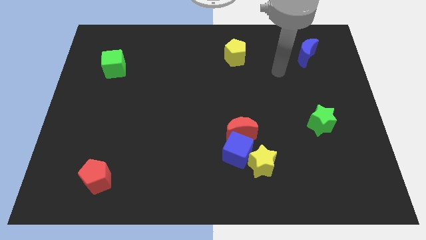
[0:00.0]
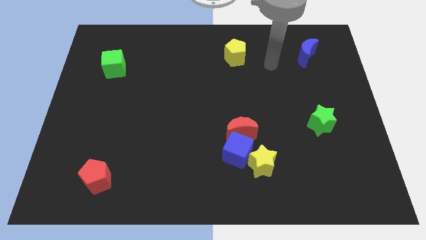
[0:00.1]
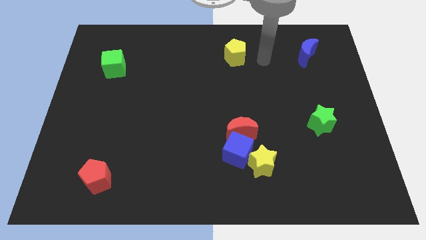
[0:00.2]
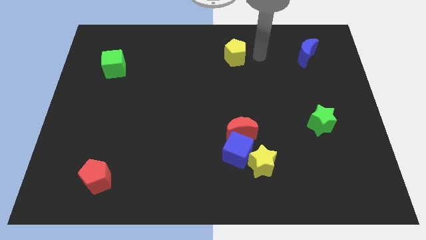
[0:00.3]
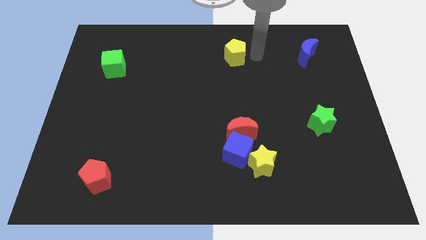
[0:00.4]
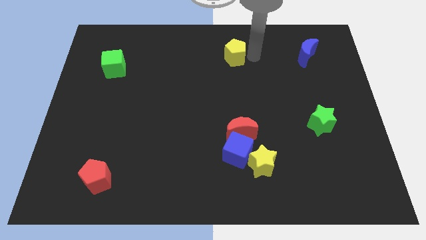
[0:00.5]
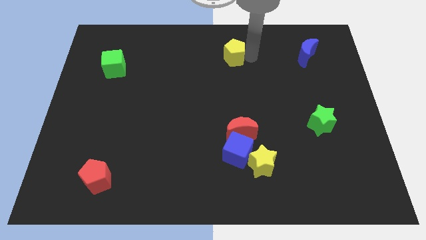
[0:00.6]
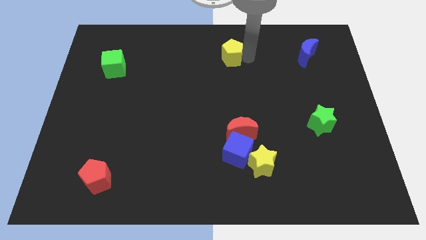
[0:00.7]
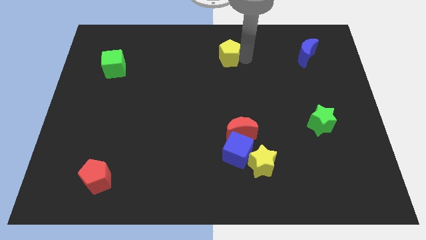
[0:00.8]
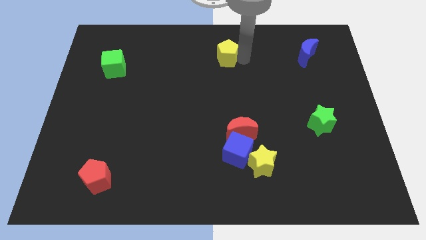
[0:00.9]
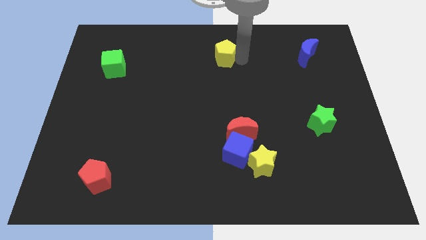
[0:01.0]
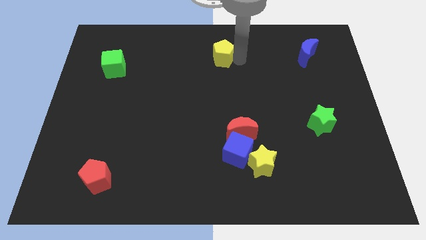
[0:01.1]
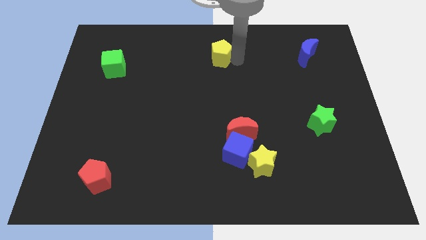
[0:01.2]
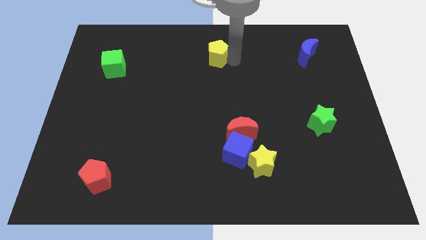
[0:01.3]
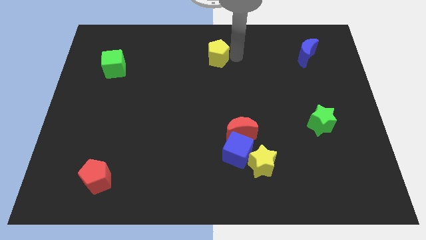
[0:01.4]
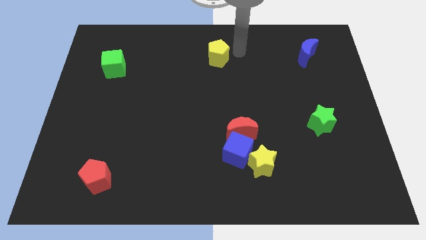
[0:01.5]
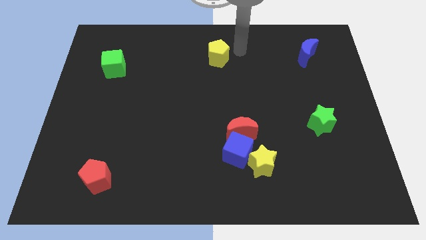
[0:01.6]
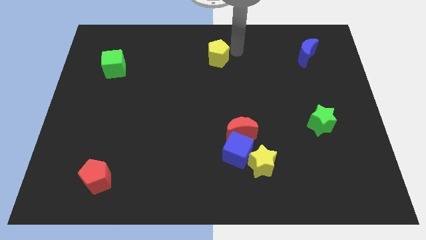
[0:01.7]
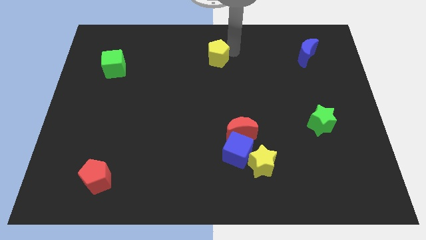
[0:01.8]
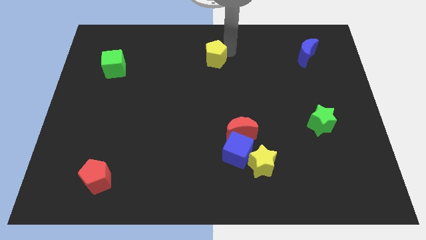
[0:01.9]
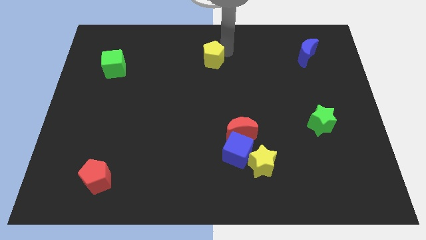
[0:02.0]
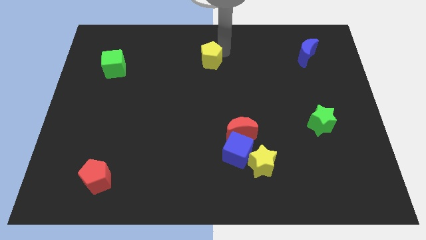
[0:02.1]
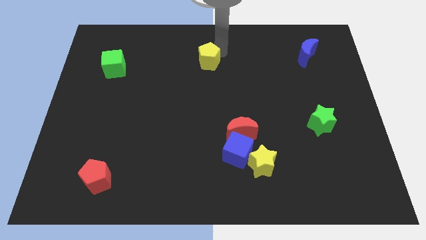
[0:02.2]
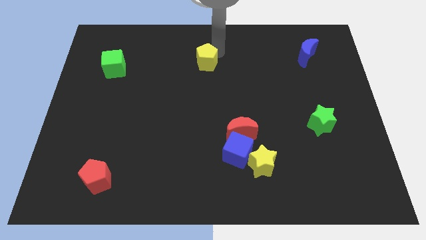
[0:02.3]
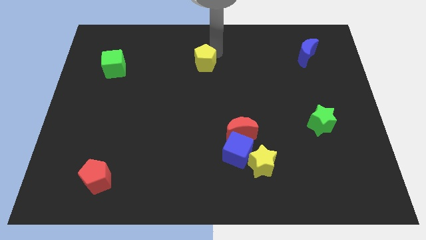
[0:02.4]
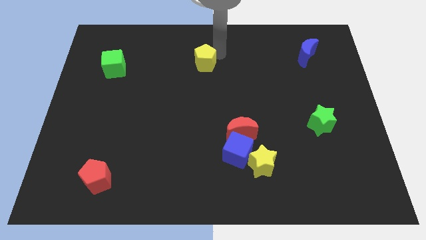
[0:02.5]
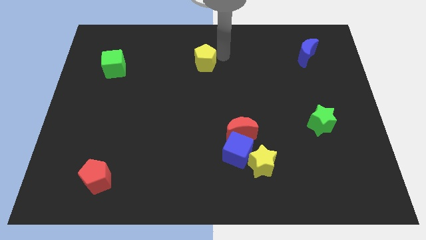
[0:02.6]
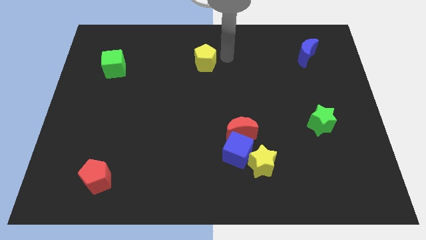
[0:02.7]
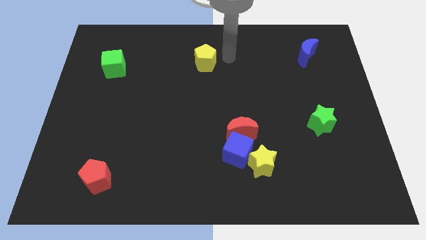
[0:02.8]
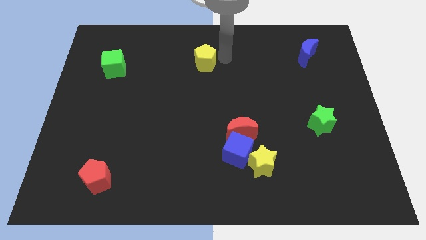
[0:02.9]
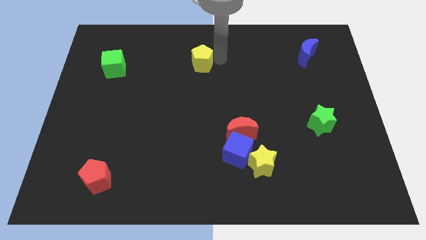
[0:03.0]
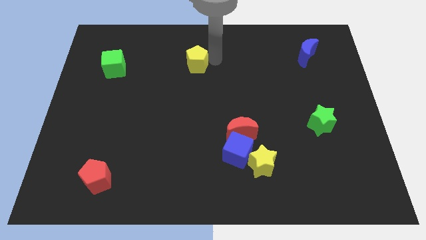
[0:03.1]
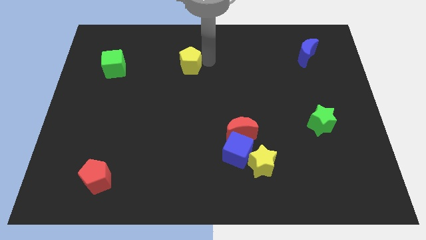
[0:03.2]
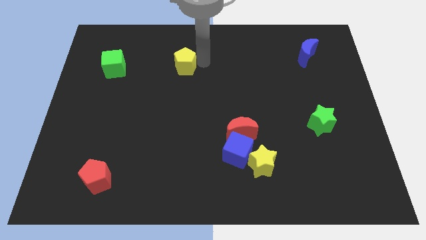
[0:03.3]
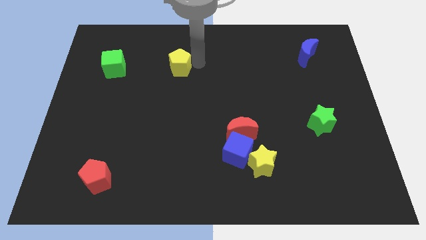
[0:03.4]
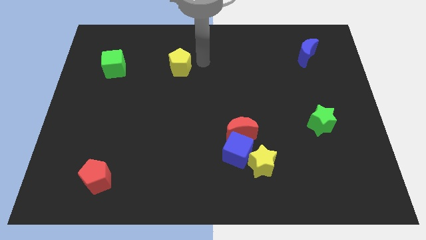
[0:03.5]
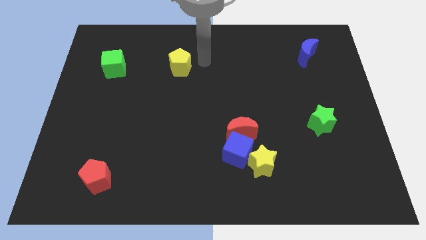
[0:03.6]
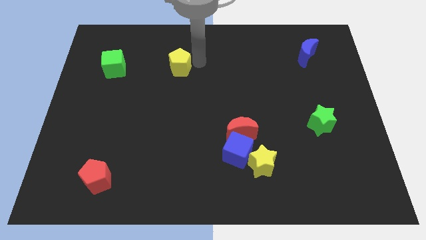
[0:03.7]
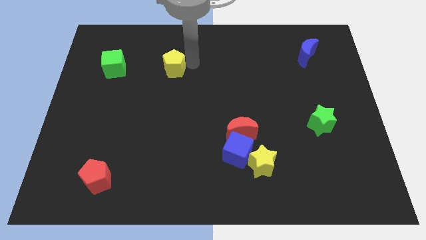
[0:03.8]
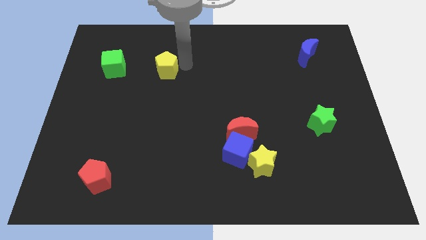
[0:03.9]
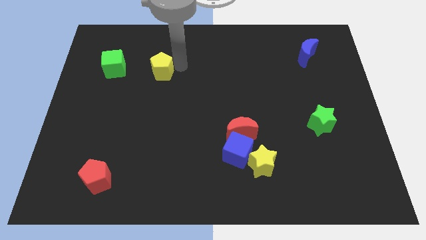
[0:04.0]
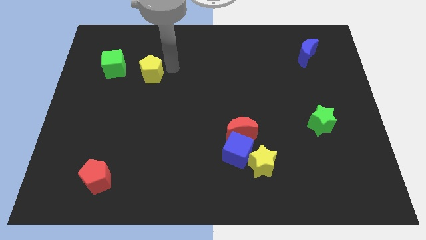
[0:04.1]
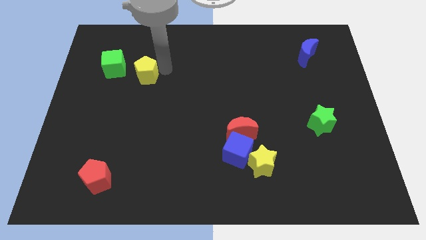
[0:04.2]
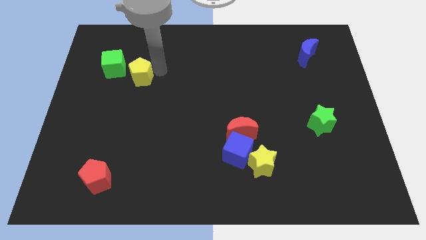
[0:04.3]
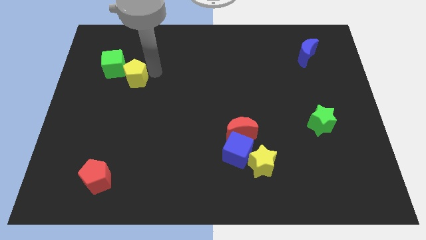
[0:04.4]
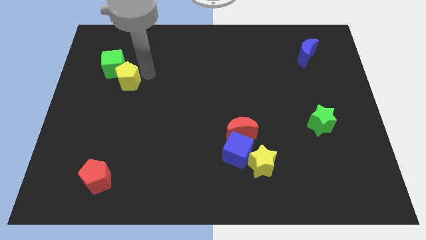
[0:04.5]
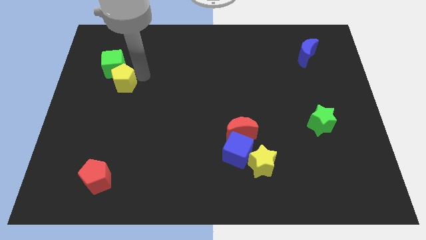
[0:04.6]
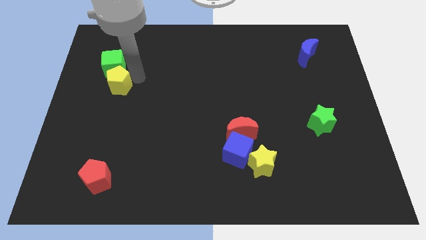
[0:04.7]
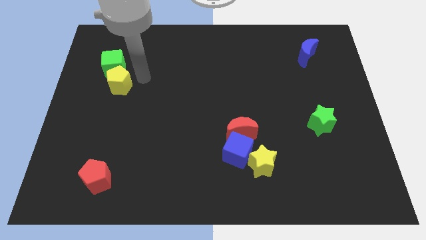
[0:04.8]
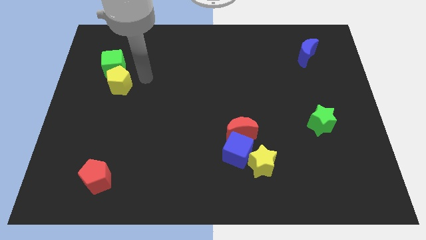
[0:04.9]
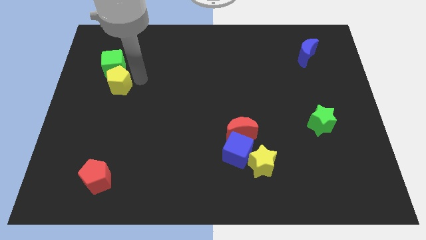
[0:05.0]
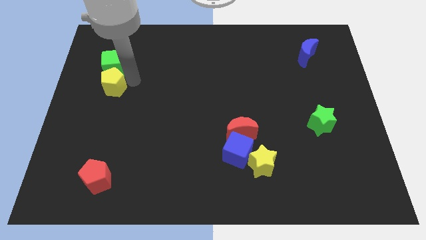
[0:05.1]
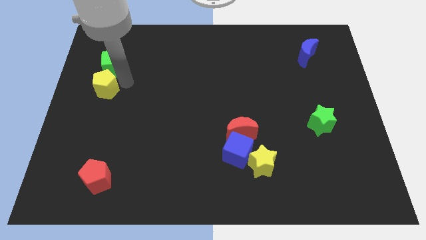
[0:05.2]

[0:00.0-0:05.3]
push the yellow pentagon to the left side of the board

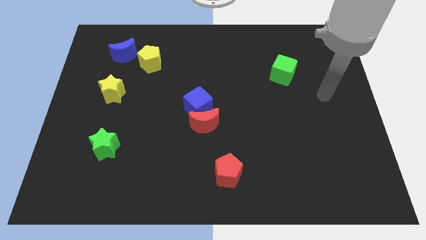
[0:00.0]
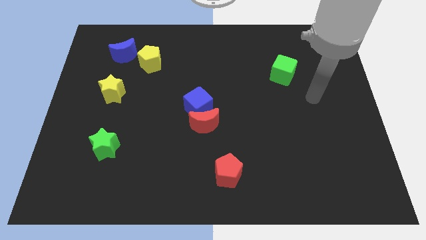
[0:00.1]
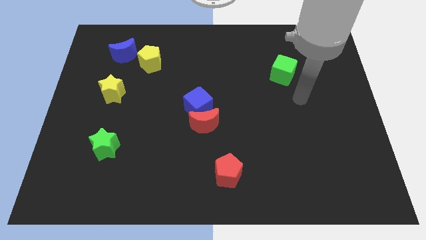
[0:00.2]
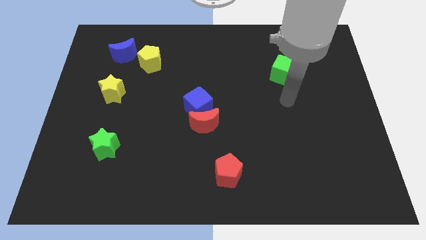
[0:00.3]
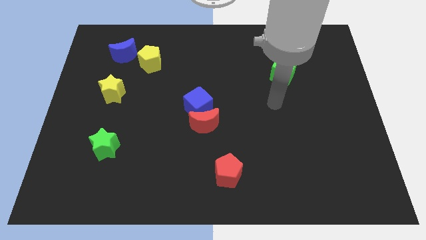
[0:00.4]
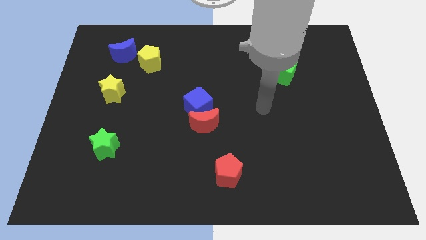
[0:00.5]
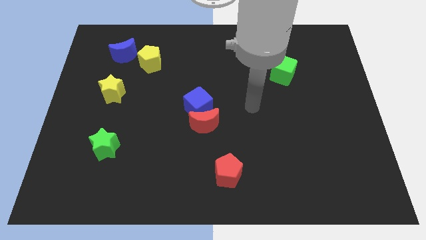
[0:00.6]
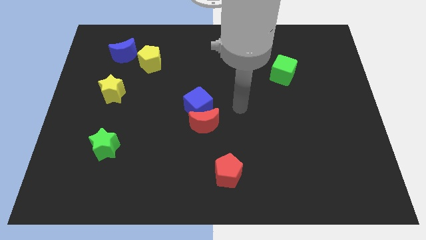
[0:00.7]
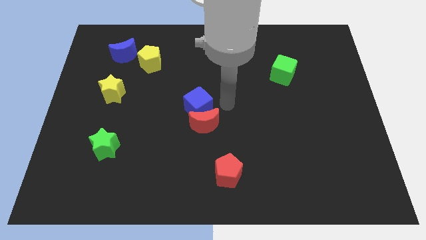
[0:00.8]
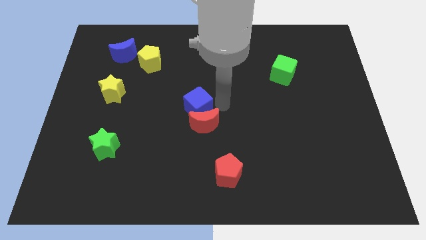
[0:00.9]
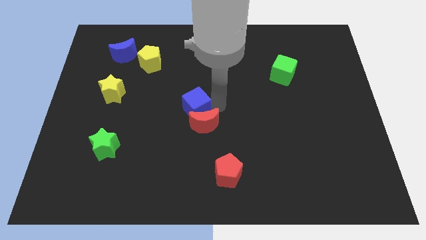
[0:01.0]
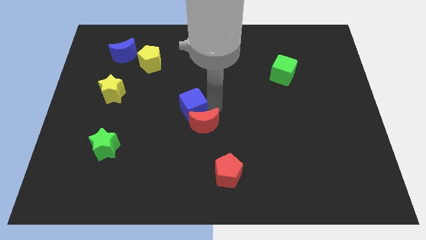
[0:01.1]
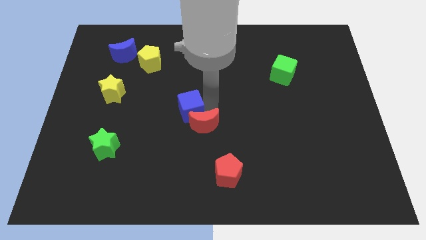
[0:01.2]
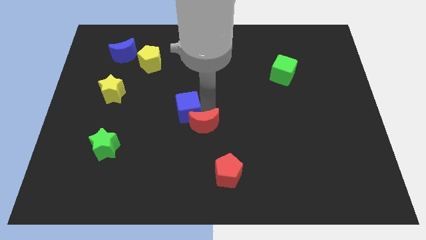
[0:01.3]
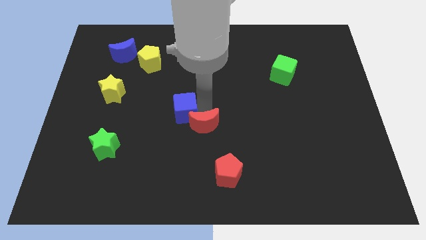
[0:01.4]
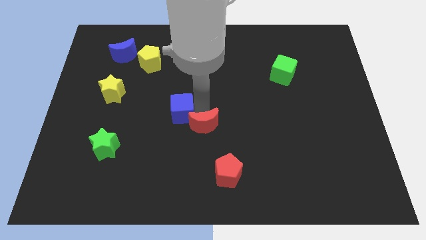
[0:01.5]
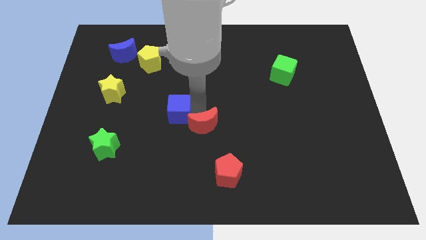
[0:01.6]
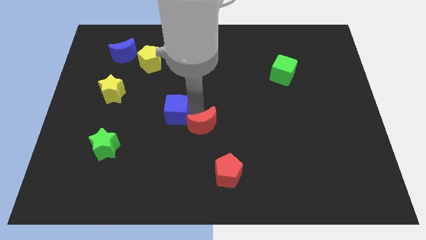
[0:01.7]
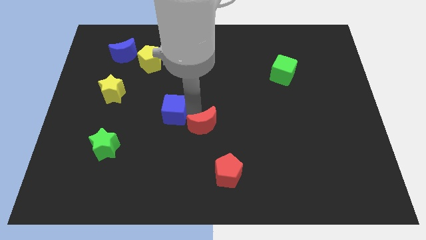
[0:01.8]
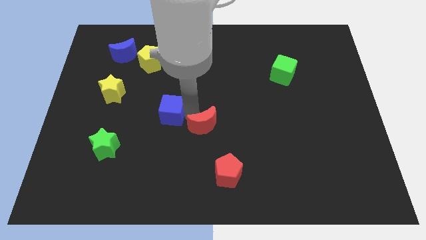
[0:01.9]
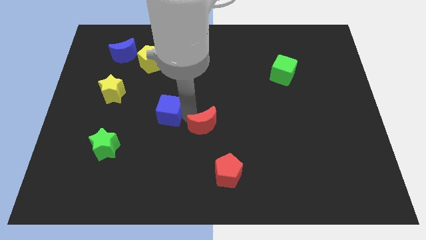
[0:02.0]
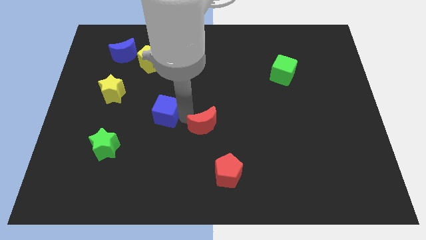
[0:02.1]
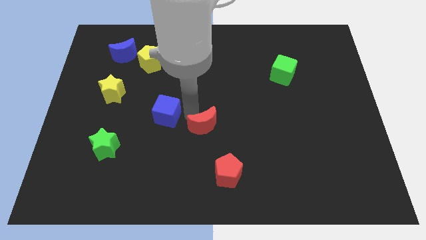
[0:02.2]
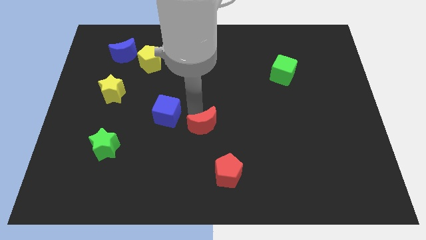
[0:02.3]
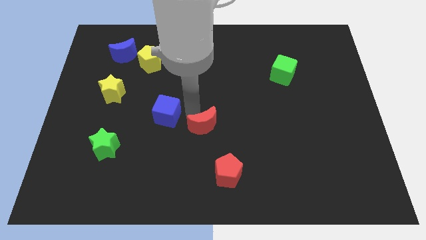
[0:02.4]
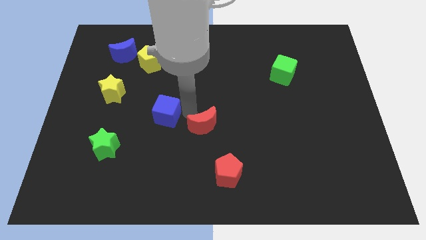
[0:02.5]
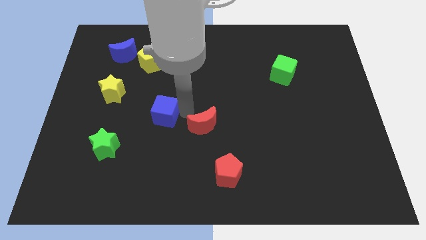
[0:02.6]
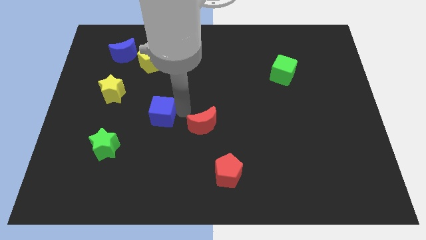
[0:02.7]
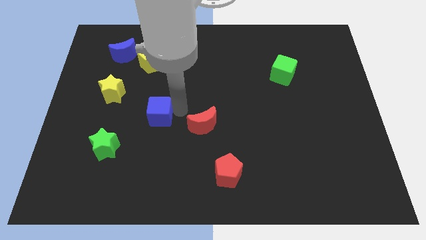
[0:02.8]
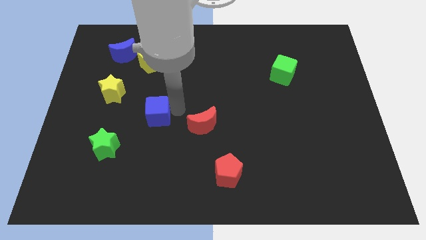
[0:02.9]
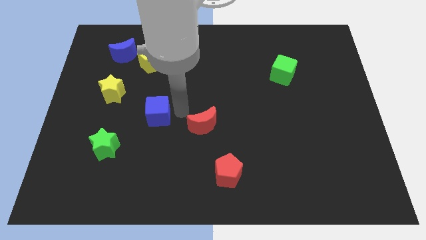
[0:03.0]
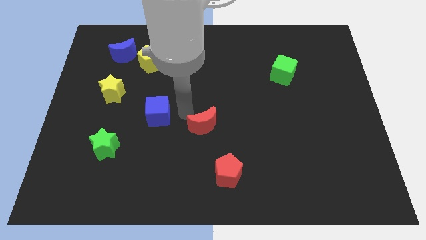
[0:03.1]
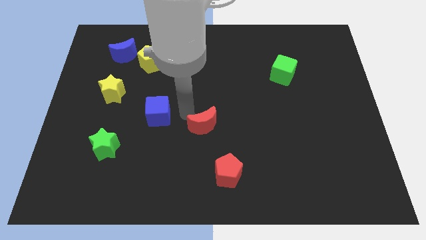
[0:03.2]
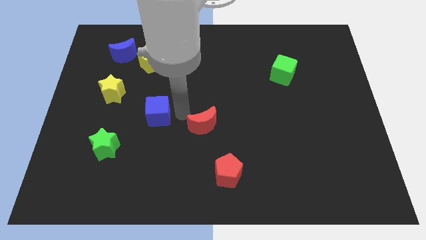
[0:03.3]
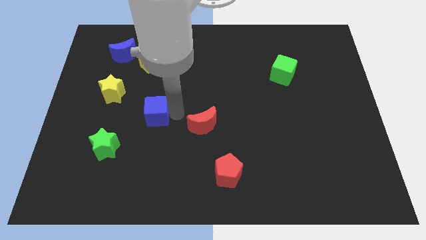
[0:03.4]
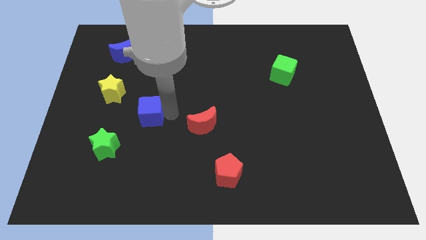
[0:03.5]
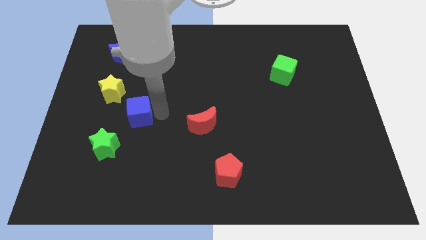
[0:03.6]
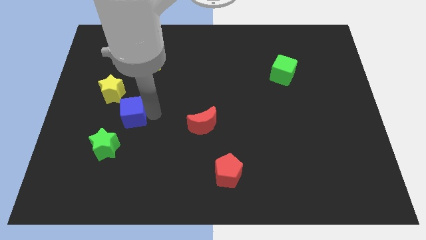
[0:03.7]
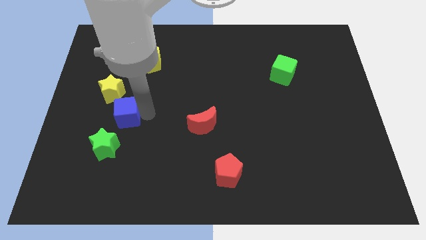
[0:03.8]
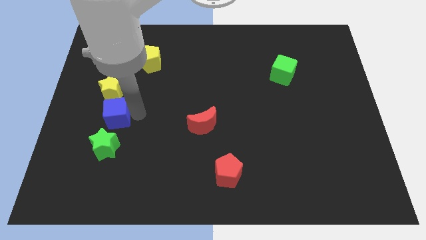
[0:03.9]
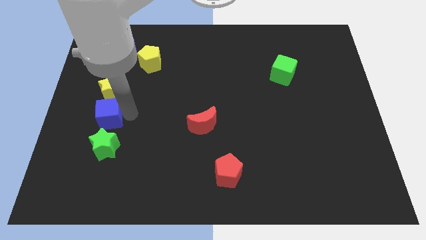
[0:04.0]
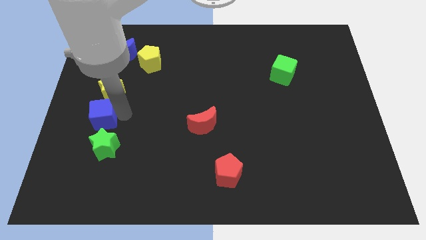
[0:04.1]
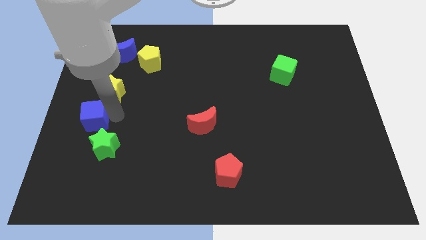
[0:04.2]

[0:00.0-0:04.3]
slide the blue cube to the left side
